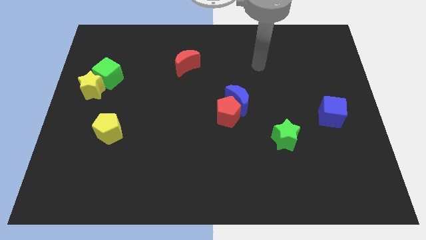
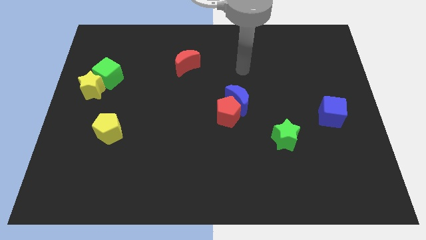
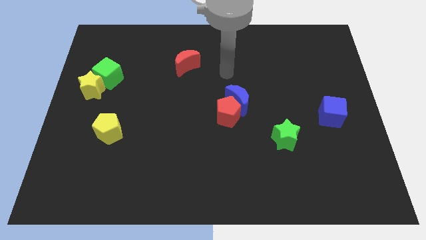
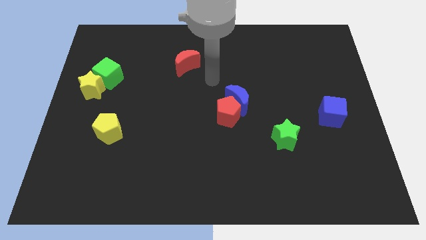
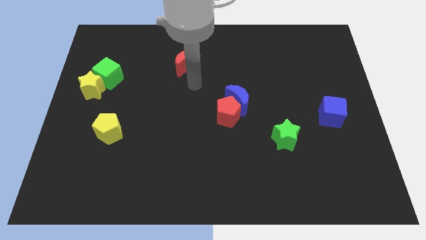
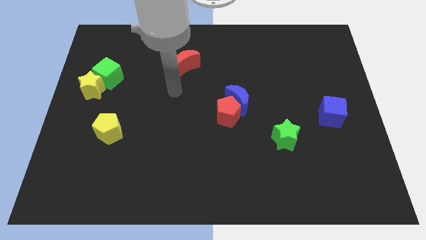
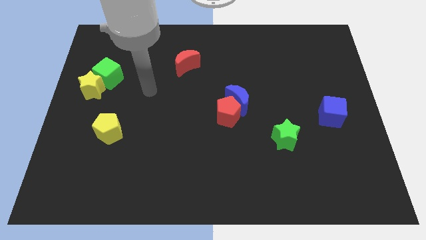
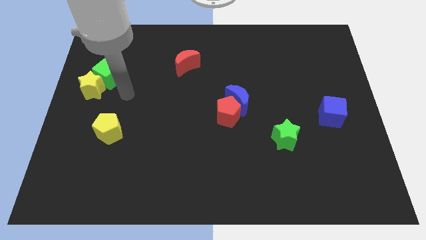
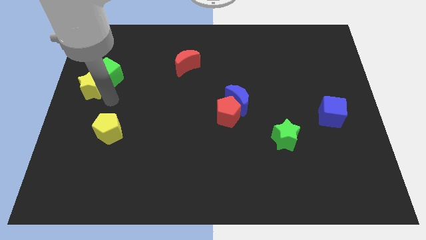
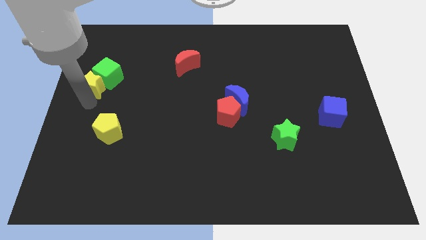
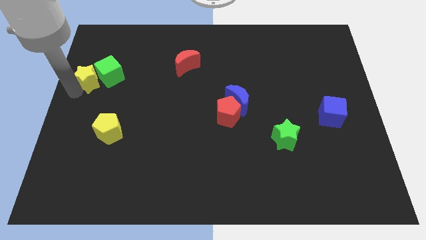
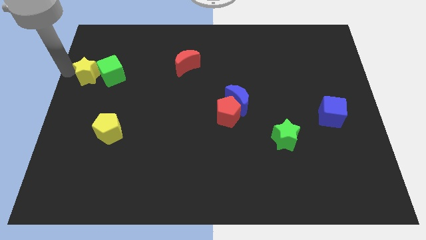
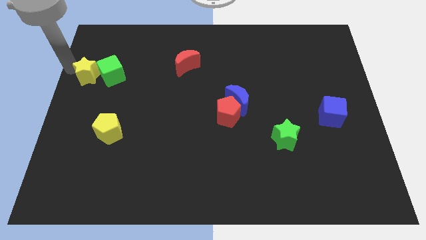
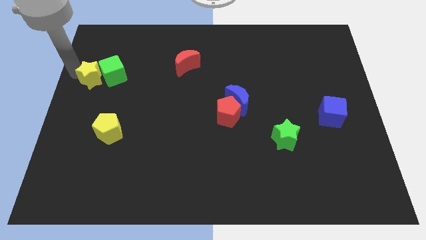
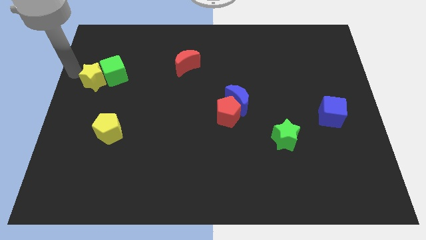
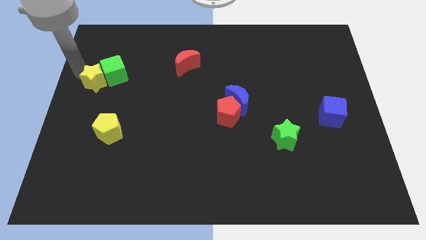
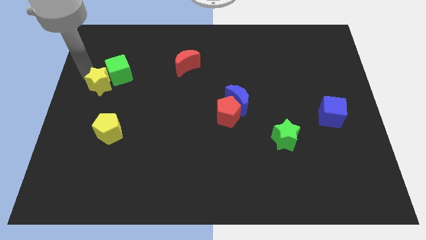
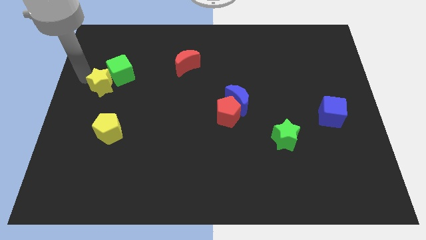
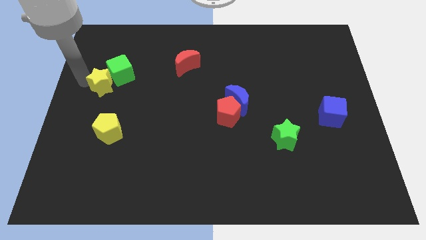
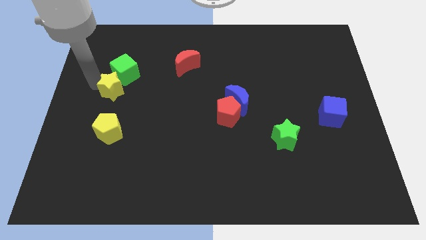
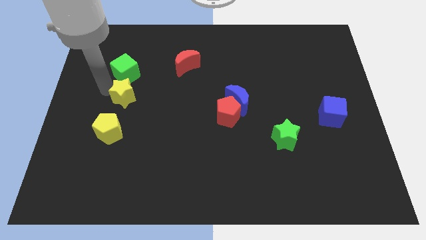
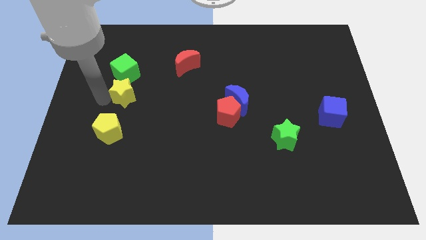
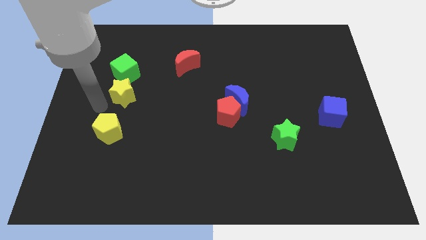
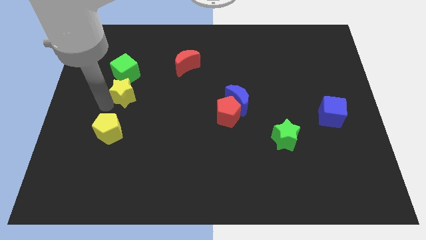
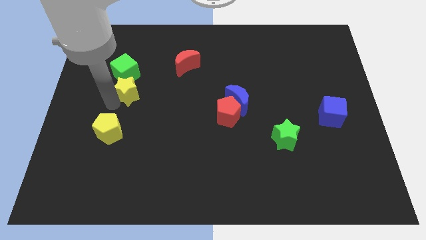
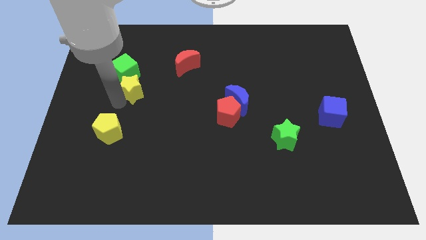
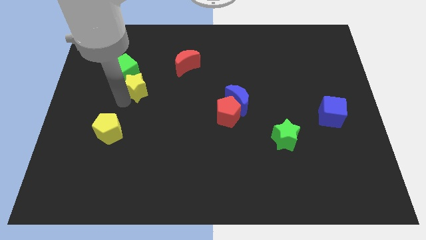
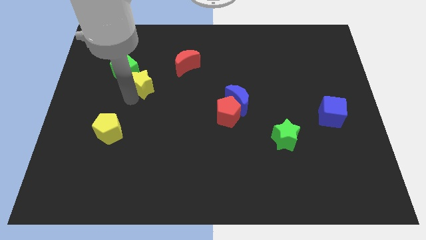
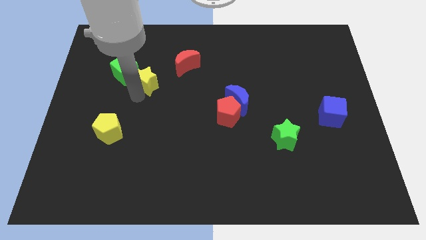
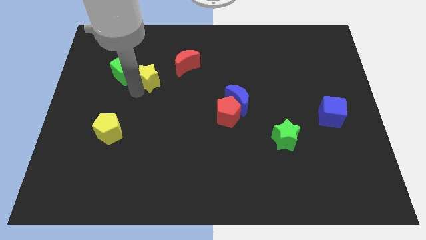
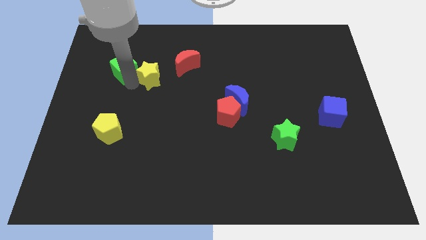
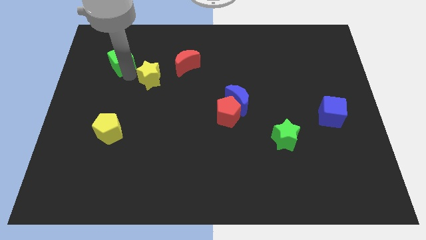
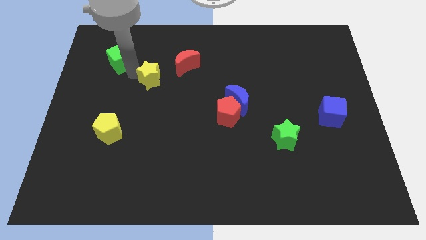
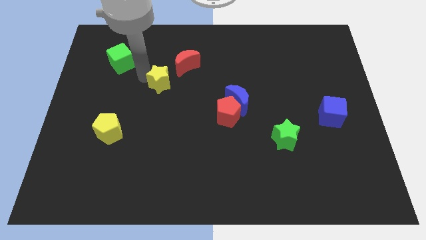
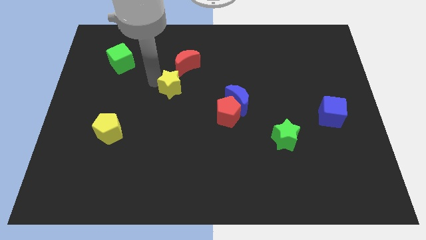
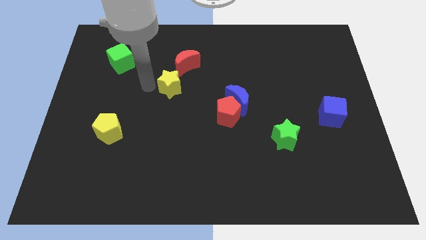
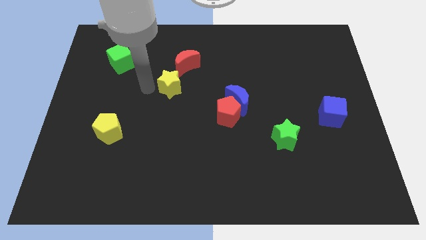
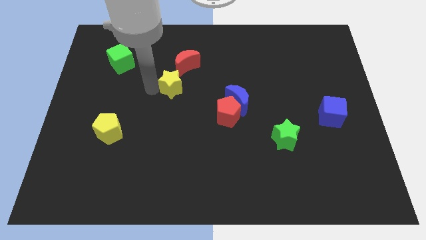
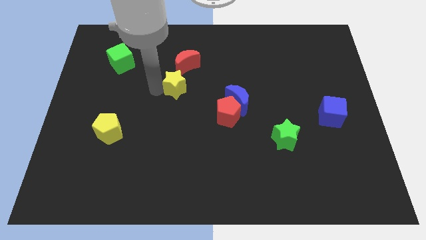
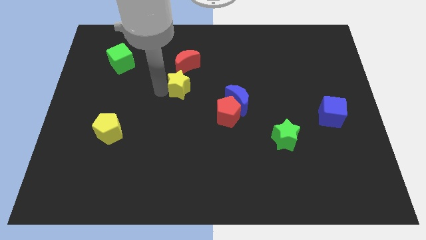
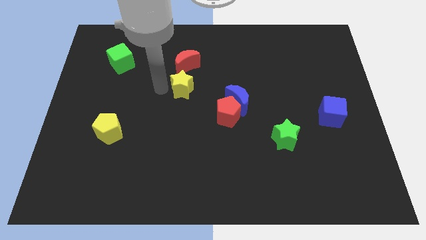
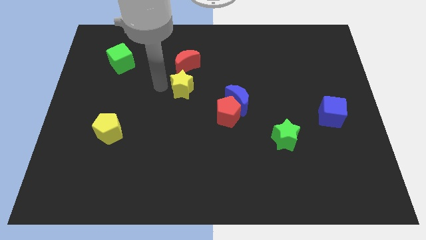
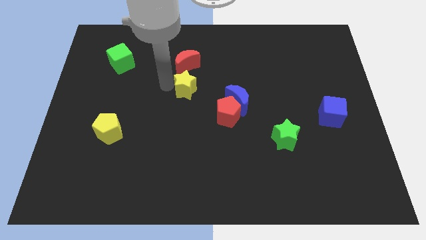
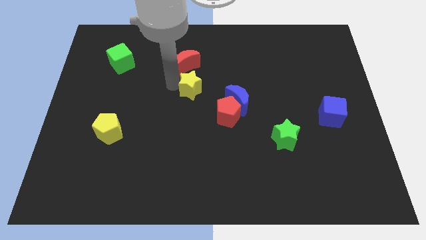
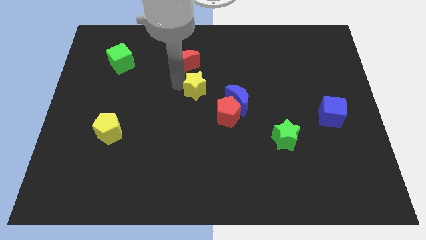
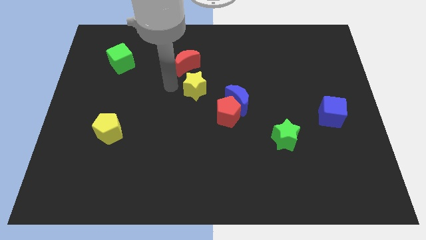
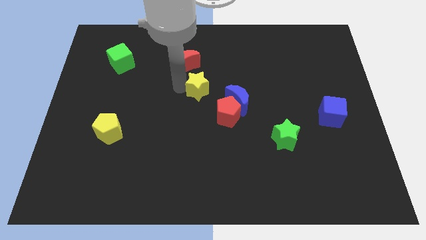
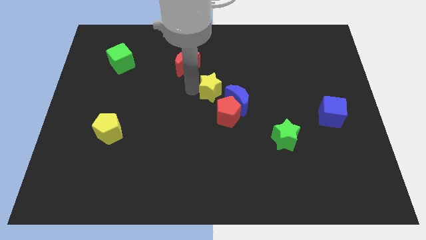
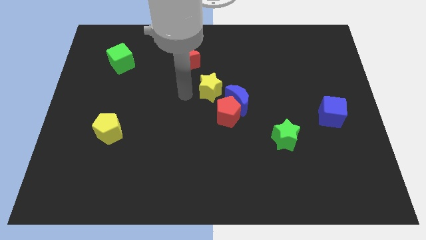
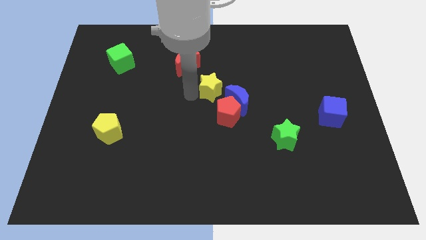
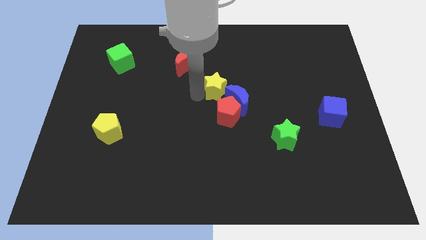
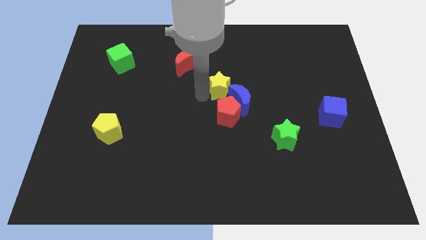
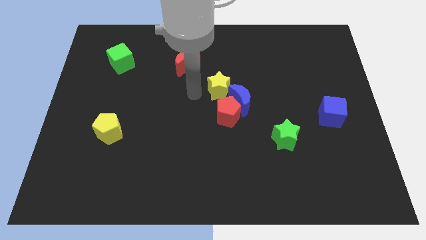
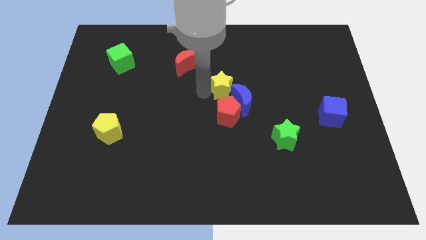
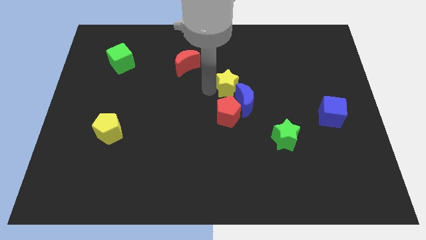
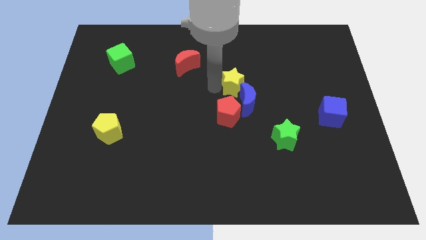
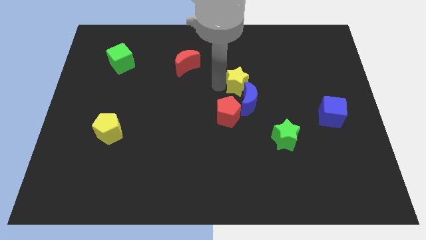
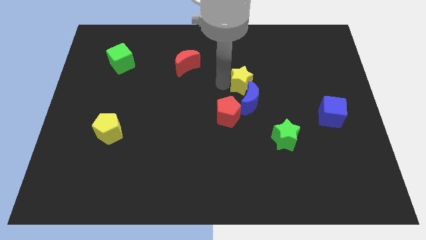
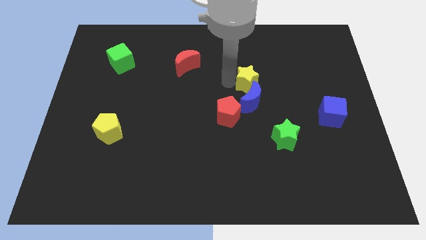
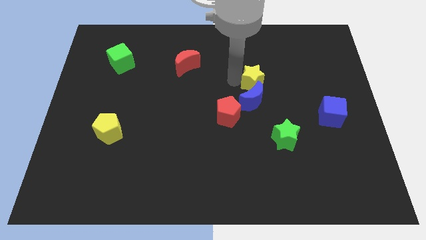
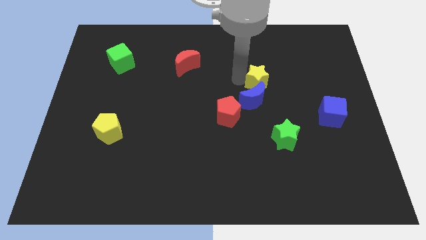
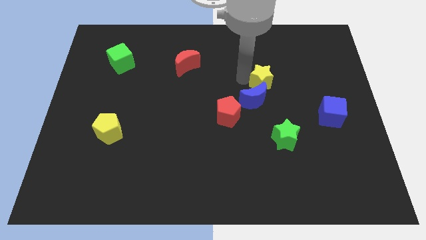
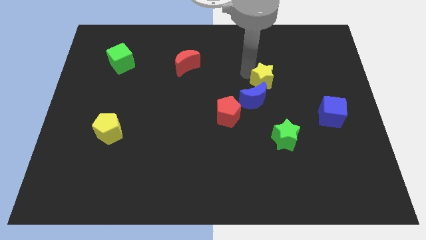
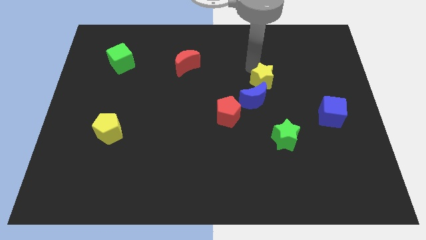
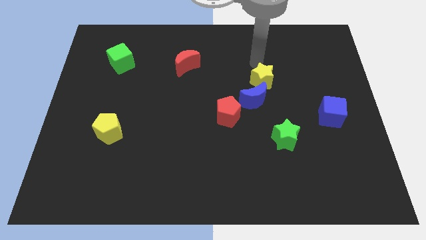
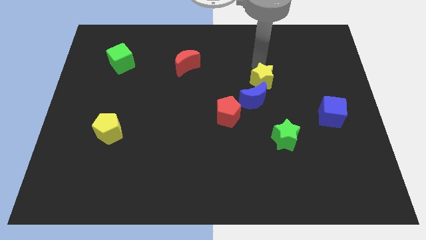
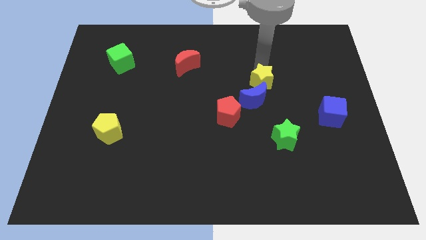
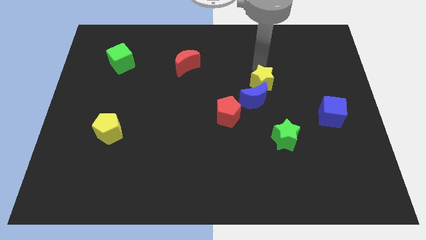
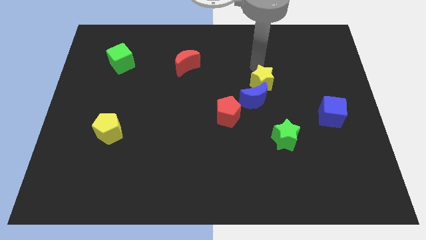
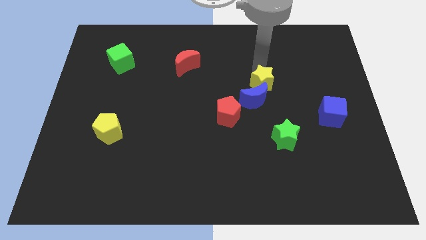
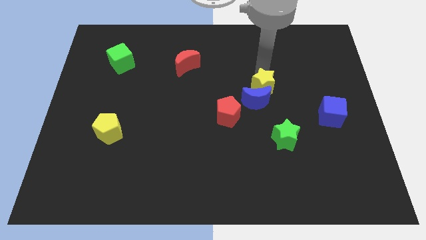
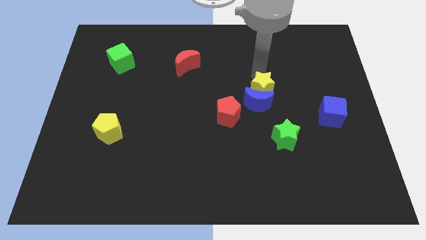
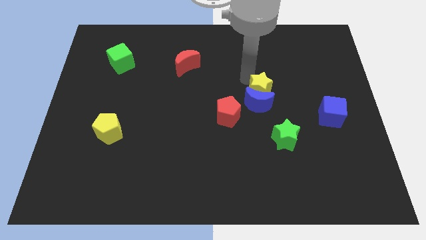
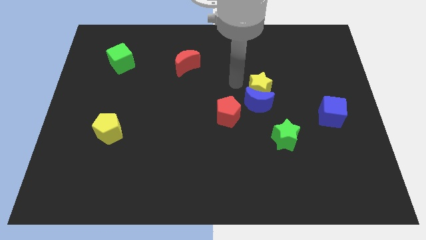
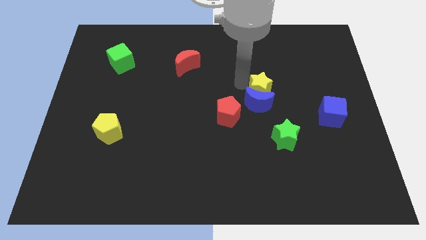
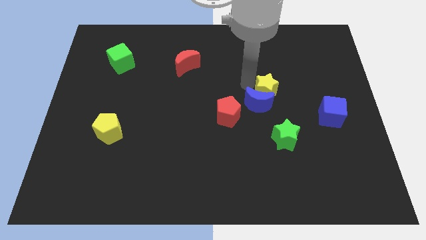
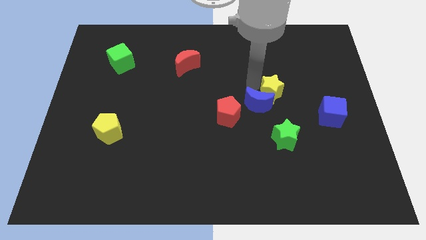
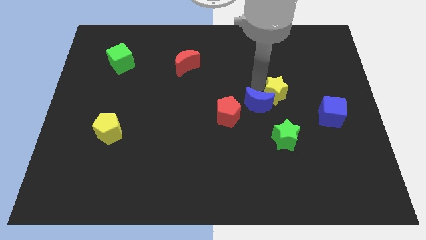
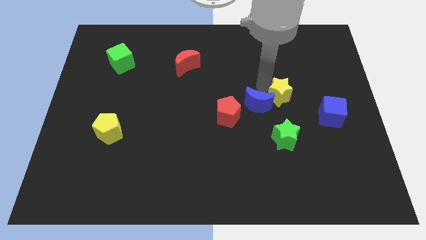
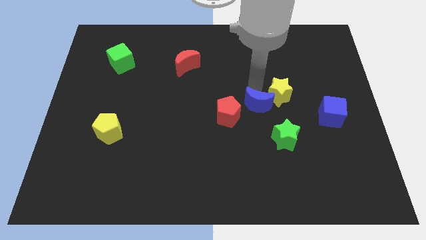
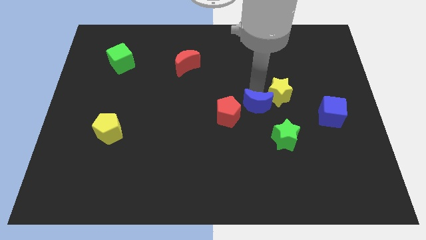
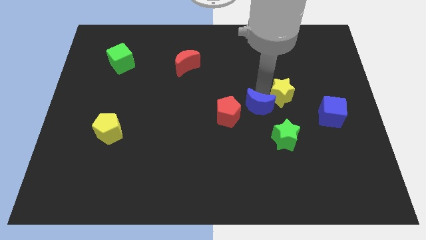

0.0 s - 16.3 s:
slide the yellow star diagonally up and to the left of the blue cube
